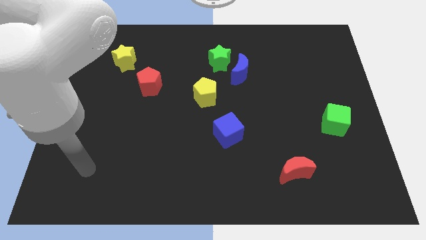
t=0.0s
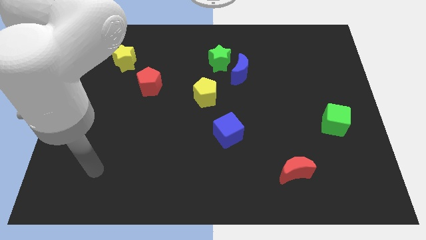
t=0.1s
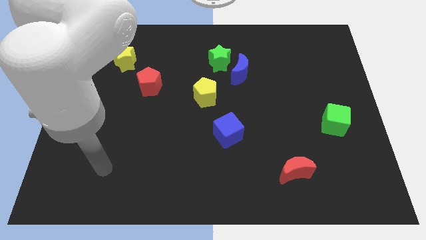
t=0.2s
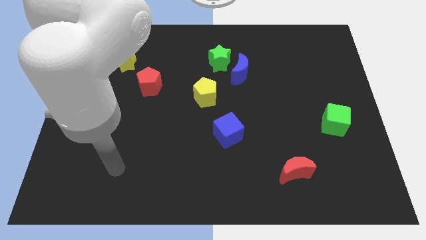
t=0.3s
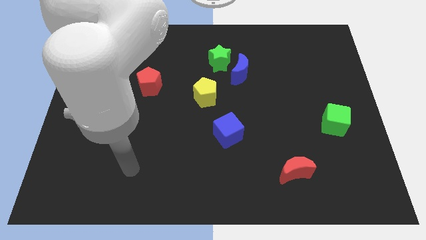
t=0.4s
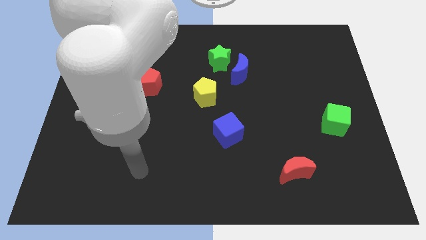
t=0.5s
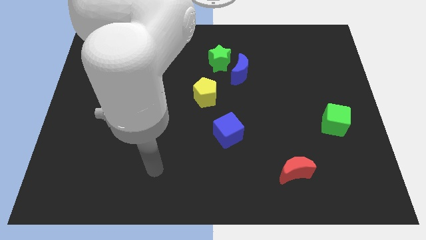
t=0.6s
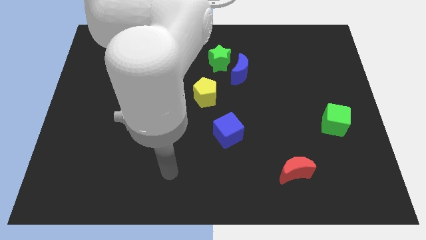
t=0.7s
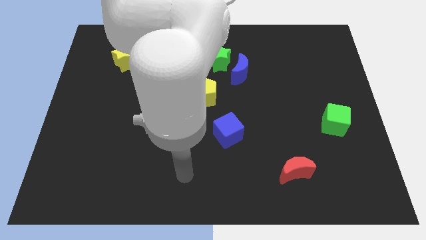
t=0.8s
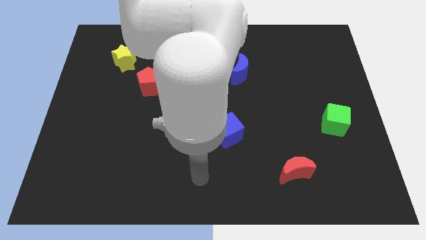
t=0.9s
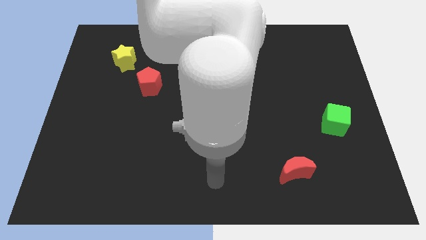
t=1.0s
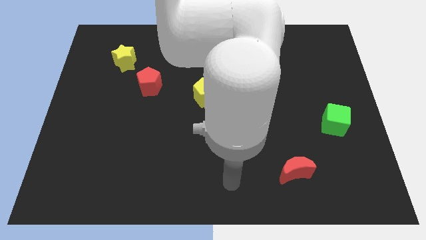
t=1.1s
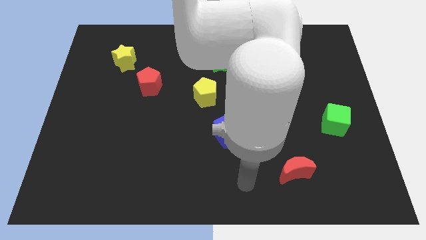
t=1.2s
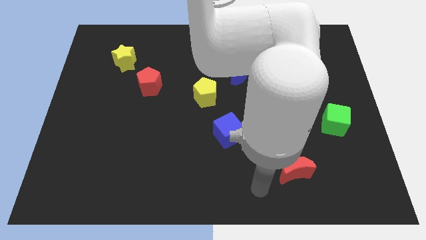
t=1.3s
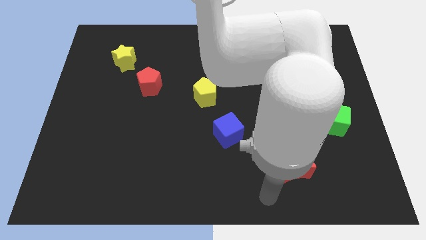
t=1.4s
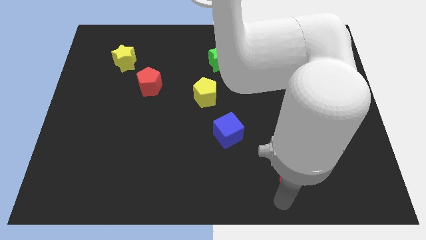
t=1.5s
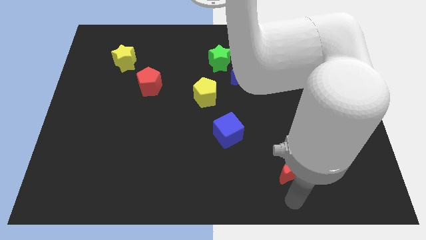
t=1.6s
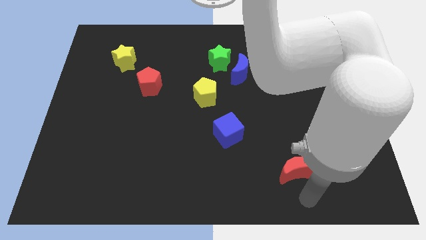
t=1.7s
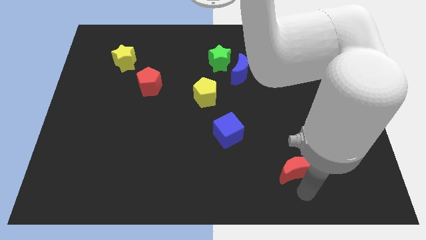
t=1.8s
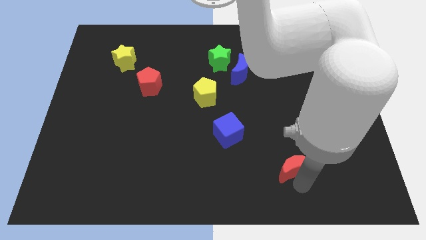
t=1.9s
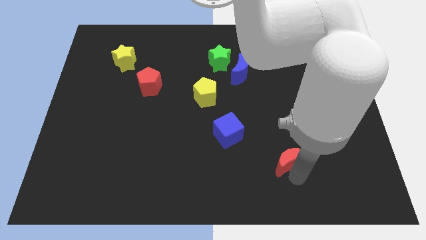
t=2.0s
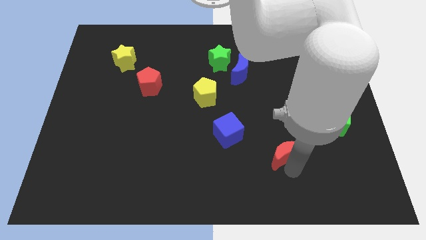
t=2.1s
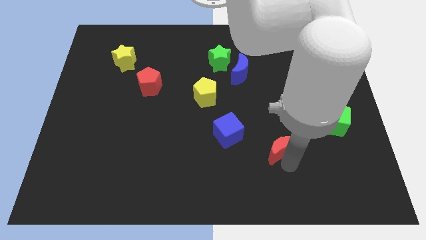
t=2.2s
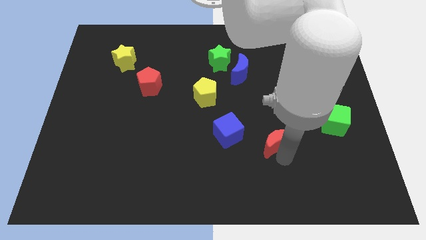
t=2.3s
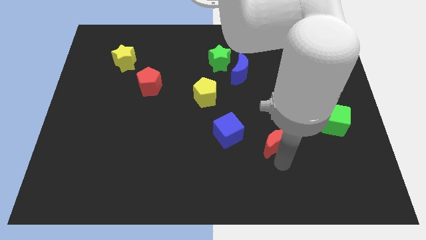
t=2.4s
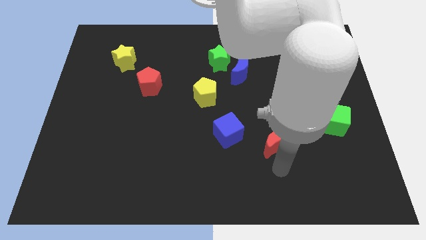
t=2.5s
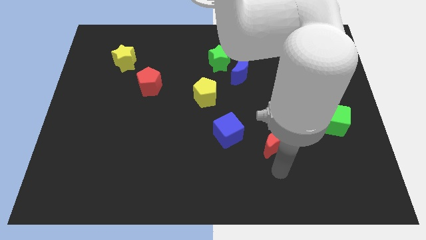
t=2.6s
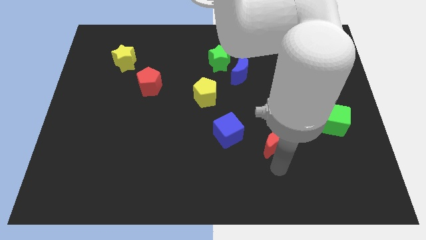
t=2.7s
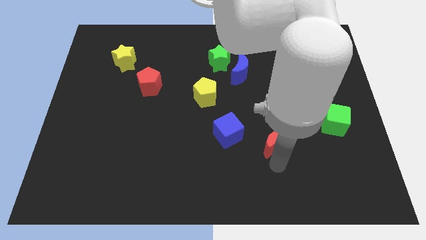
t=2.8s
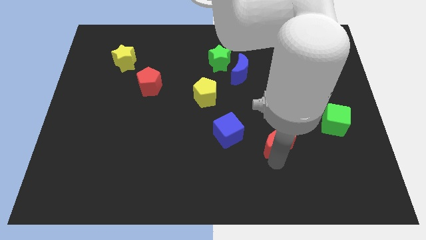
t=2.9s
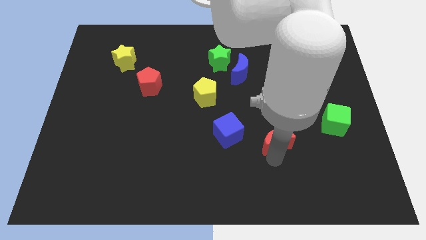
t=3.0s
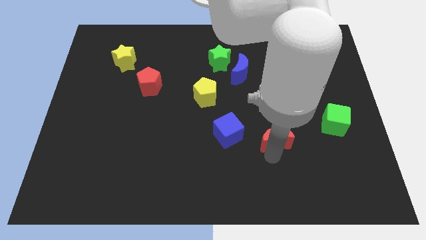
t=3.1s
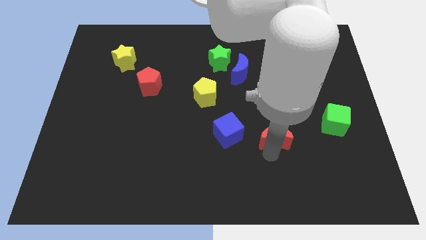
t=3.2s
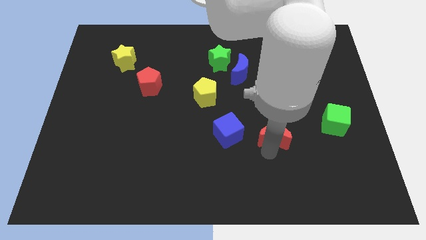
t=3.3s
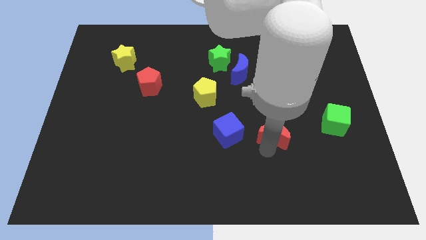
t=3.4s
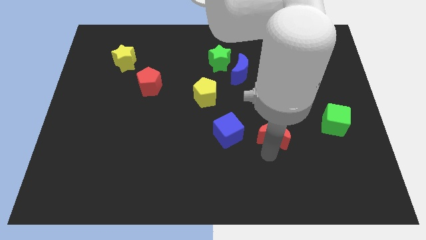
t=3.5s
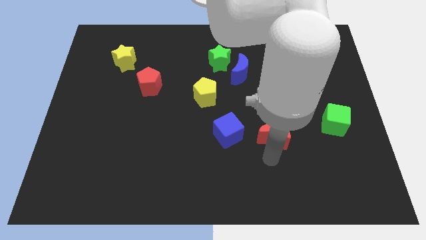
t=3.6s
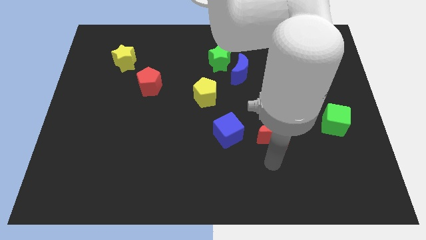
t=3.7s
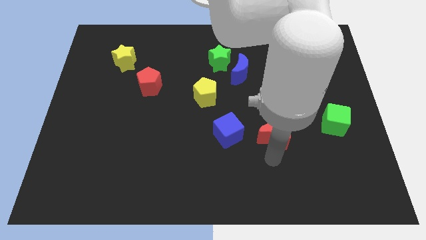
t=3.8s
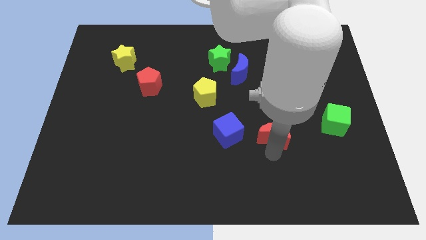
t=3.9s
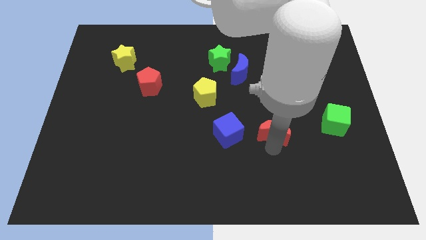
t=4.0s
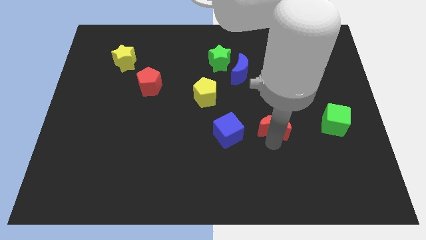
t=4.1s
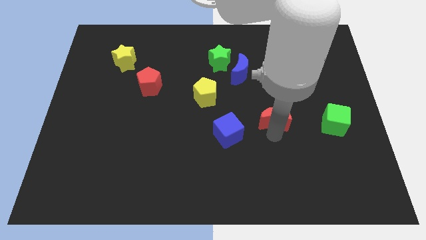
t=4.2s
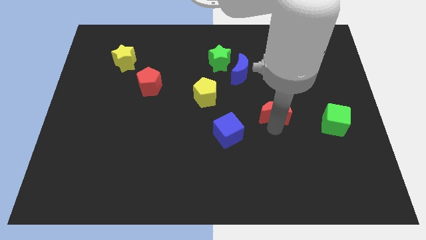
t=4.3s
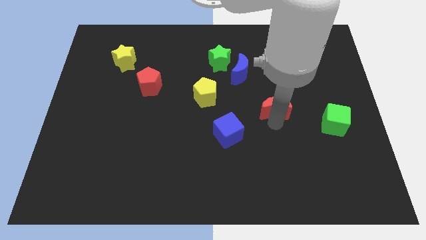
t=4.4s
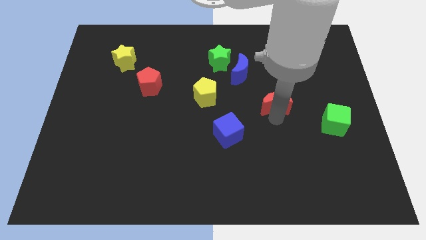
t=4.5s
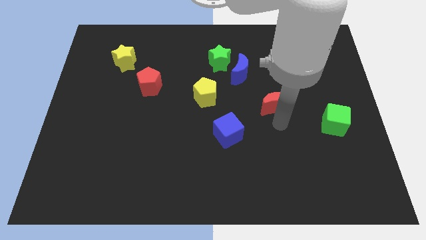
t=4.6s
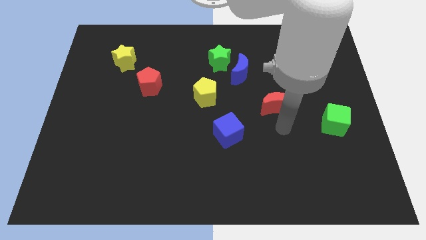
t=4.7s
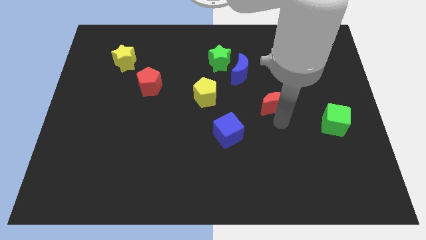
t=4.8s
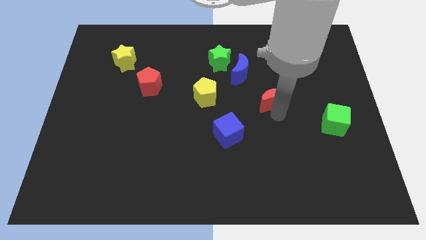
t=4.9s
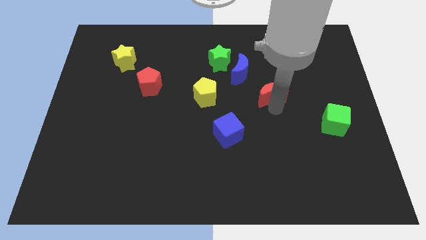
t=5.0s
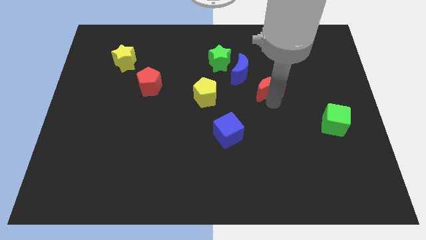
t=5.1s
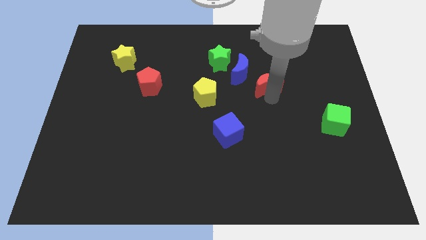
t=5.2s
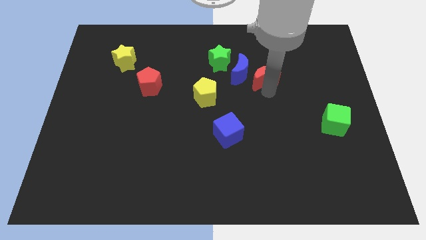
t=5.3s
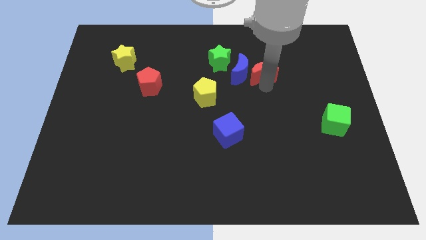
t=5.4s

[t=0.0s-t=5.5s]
slide the red moon diagonally up and to the right of the blue moon

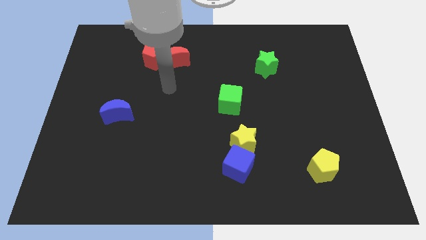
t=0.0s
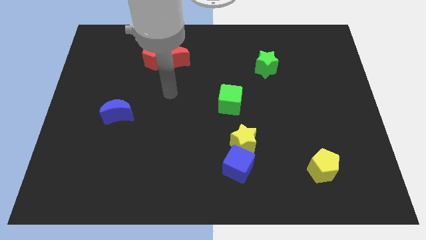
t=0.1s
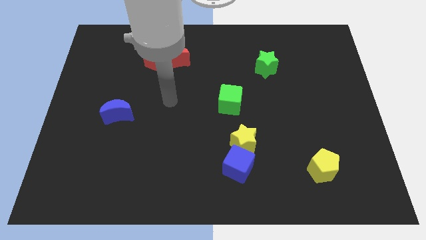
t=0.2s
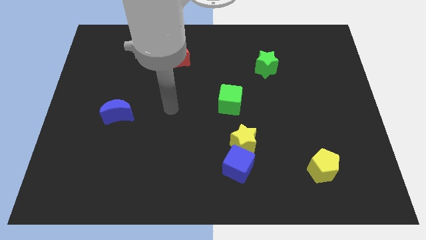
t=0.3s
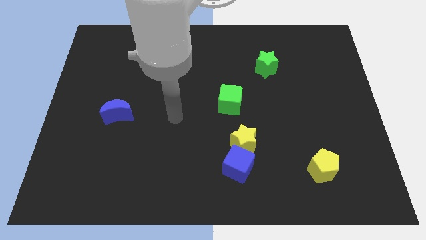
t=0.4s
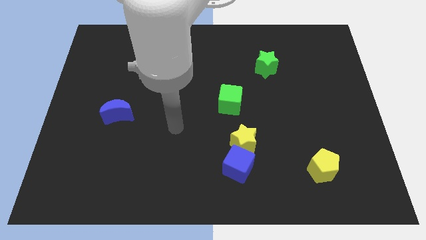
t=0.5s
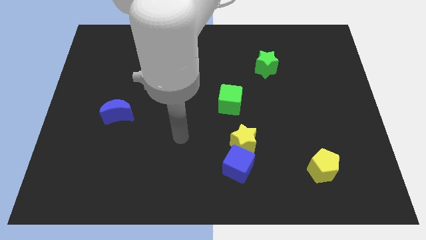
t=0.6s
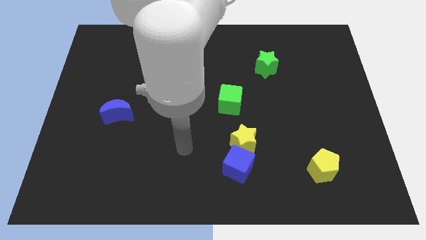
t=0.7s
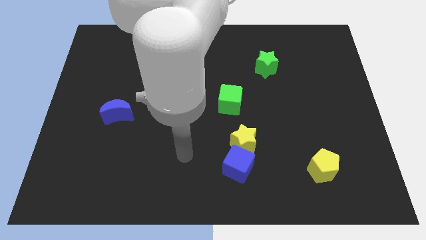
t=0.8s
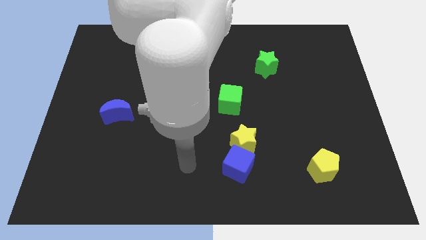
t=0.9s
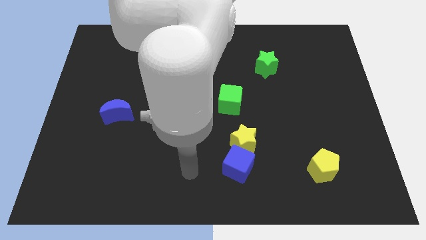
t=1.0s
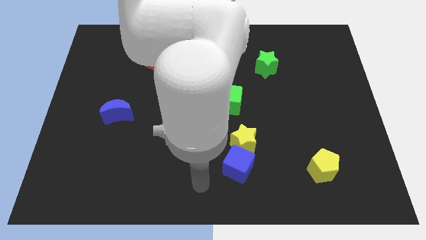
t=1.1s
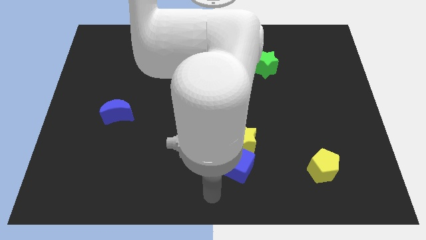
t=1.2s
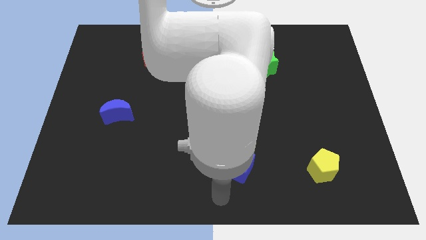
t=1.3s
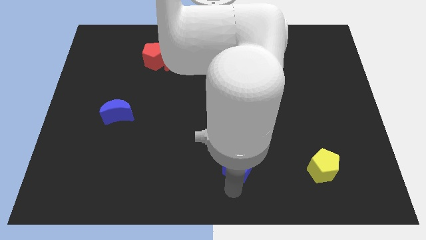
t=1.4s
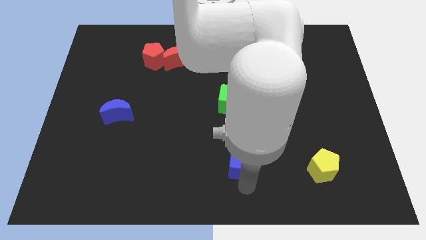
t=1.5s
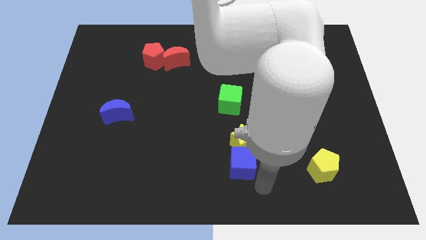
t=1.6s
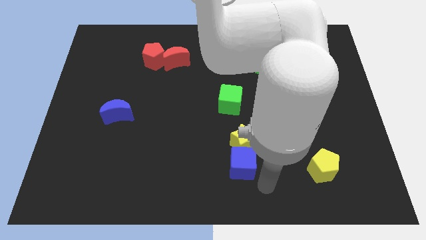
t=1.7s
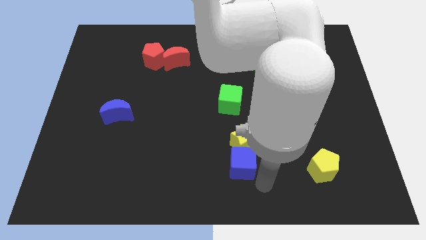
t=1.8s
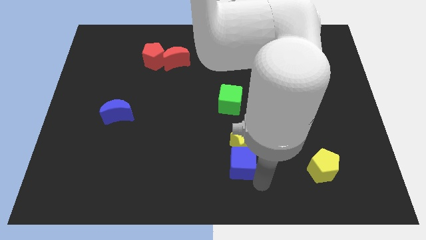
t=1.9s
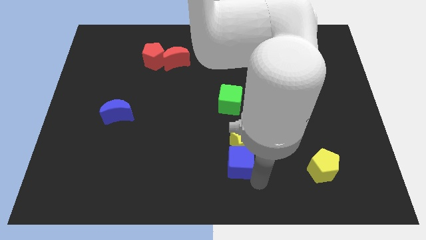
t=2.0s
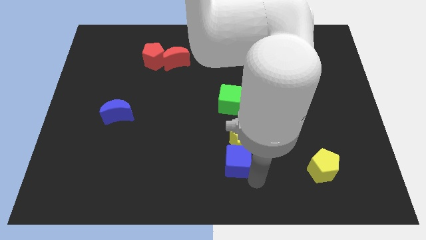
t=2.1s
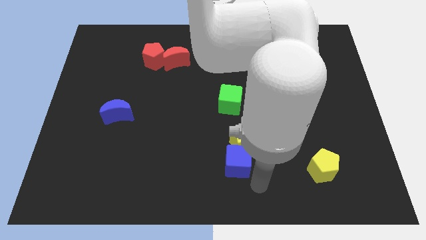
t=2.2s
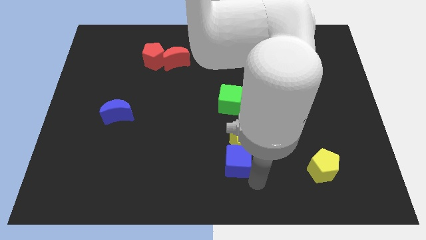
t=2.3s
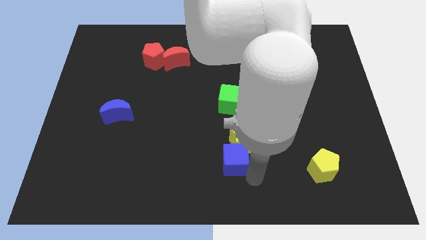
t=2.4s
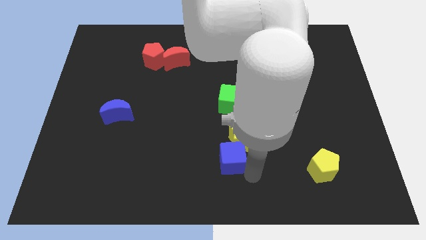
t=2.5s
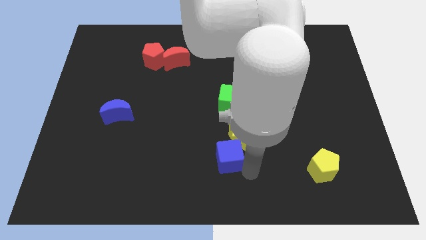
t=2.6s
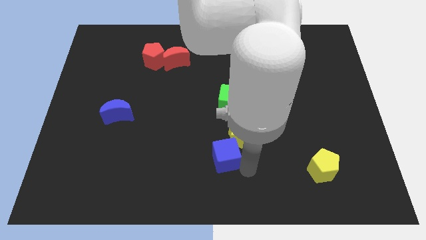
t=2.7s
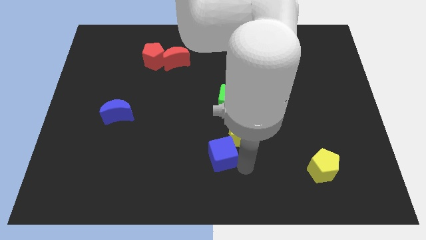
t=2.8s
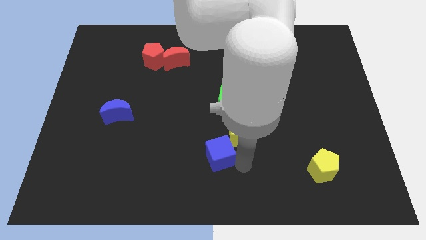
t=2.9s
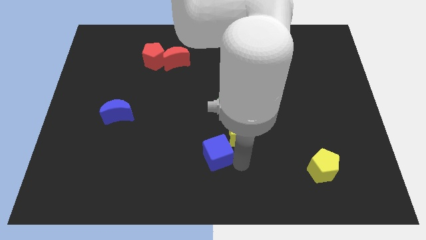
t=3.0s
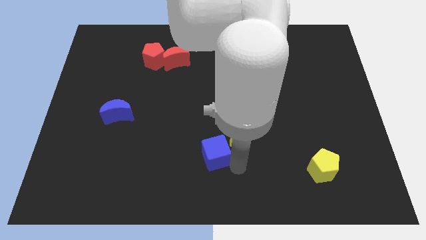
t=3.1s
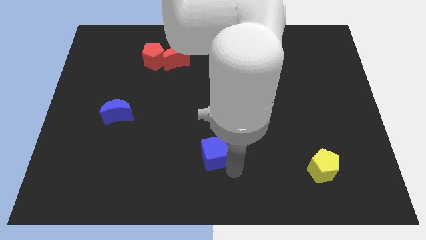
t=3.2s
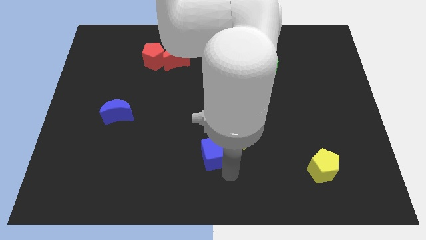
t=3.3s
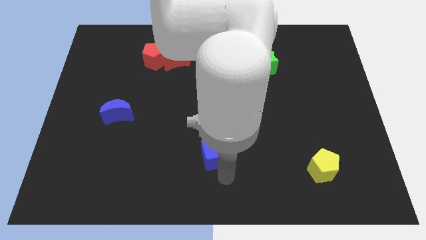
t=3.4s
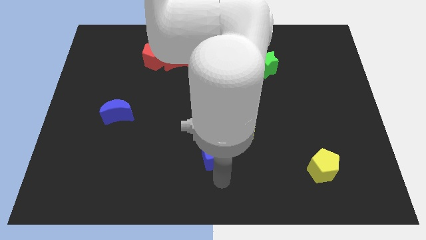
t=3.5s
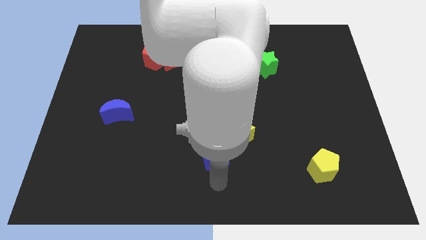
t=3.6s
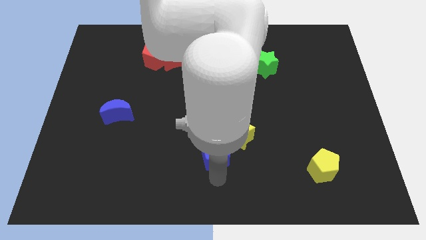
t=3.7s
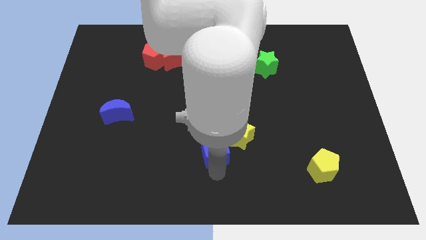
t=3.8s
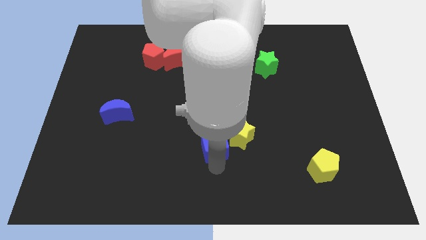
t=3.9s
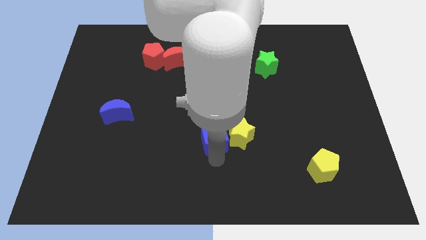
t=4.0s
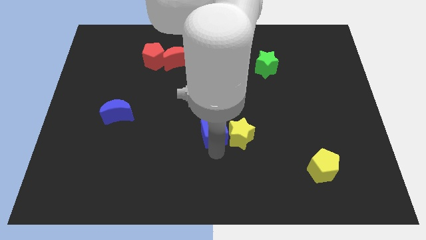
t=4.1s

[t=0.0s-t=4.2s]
move the blue cube to the bottom left side of the green cube
